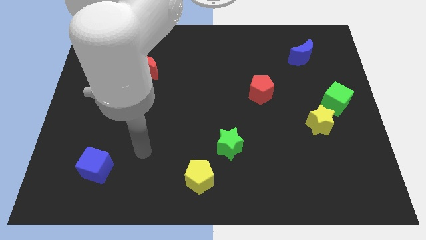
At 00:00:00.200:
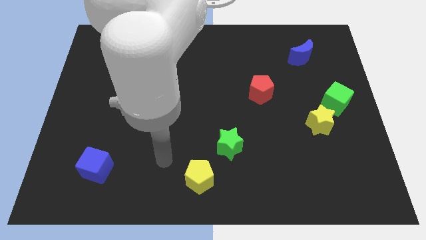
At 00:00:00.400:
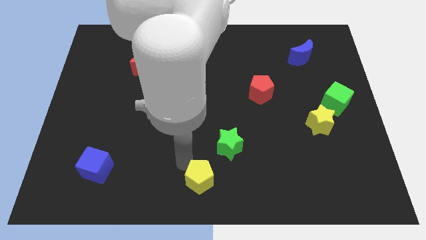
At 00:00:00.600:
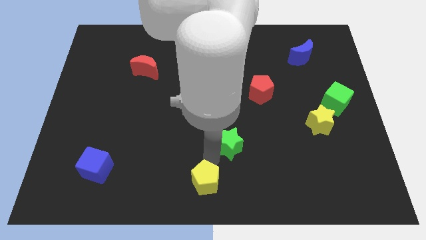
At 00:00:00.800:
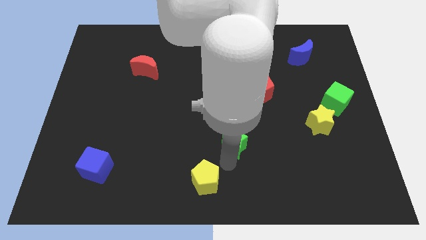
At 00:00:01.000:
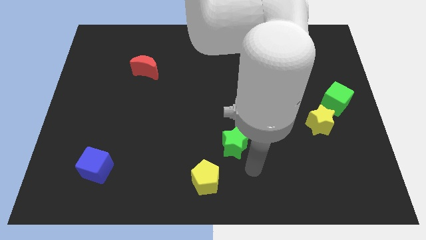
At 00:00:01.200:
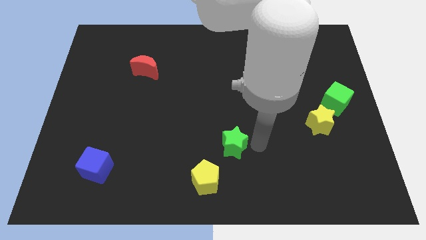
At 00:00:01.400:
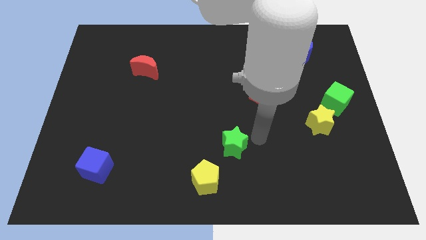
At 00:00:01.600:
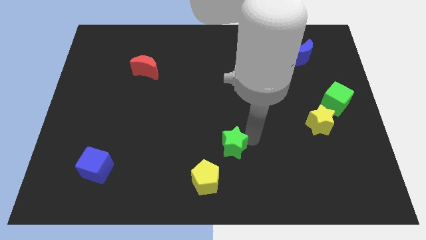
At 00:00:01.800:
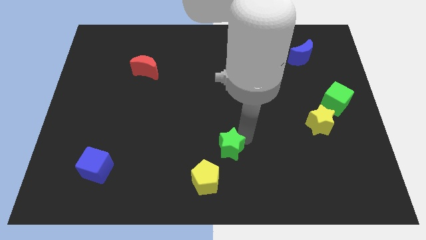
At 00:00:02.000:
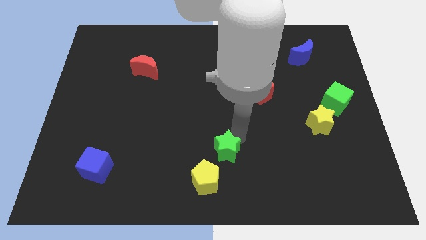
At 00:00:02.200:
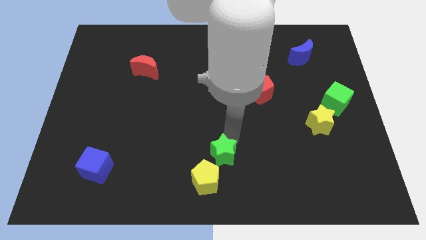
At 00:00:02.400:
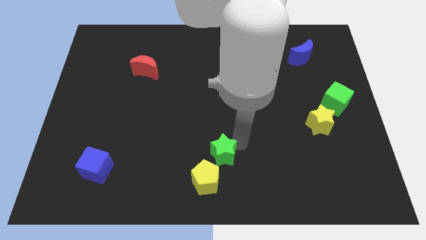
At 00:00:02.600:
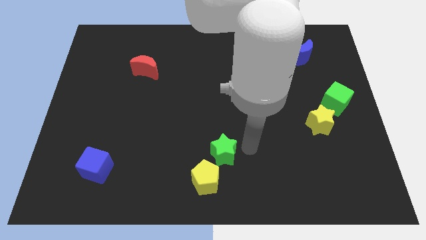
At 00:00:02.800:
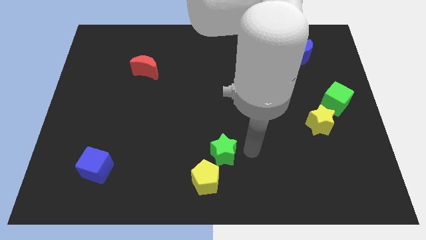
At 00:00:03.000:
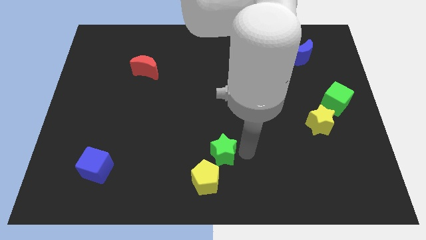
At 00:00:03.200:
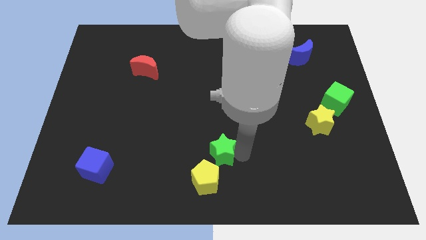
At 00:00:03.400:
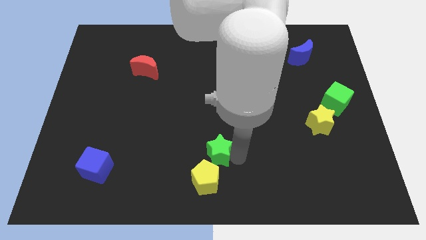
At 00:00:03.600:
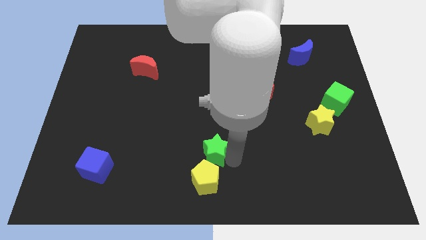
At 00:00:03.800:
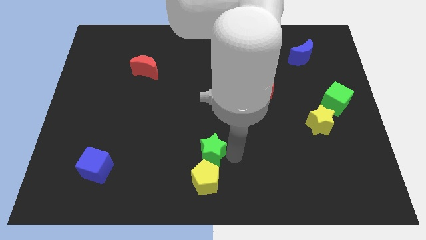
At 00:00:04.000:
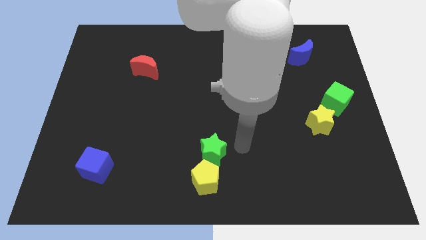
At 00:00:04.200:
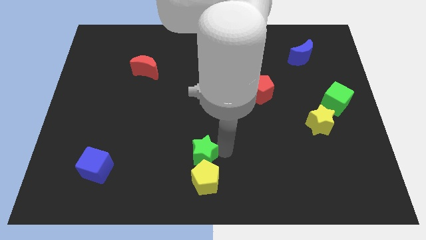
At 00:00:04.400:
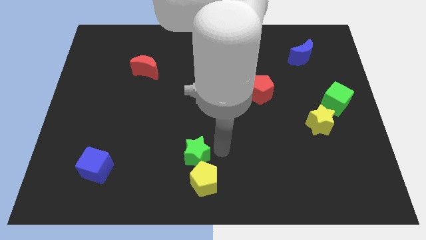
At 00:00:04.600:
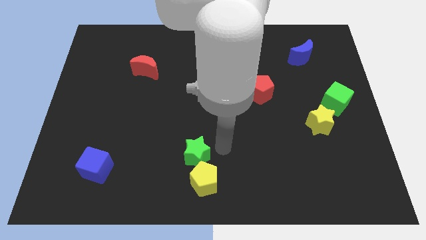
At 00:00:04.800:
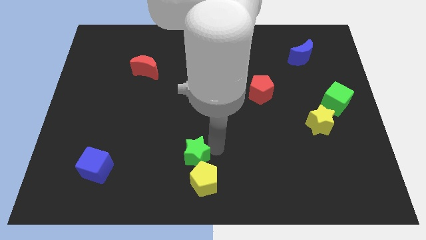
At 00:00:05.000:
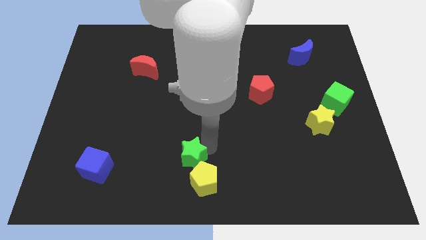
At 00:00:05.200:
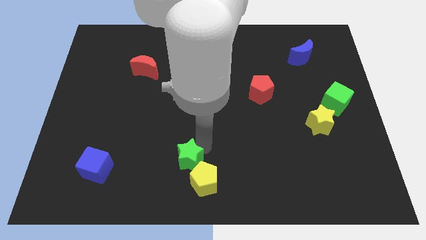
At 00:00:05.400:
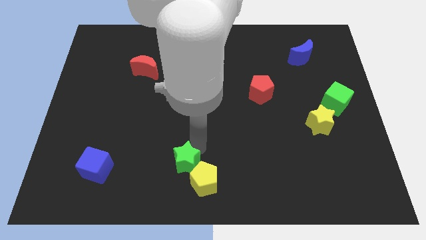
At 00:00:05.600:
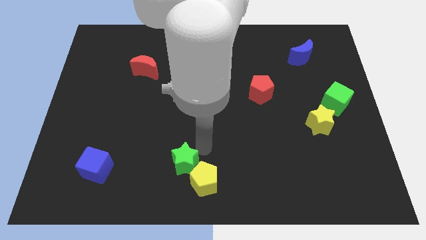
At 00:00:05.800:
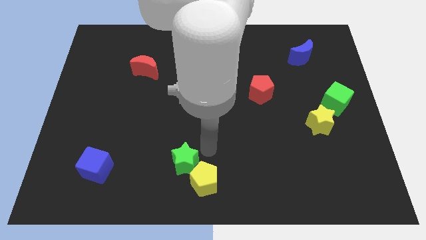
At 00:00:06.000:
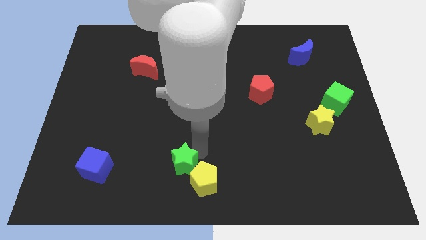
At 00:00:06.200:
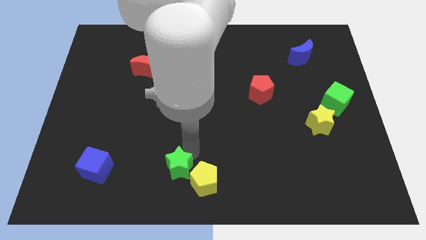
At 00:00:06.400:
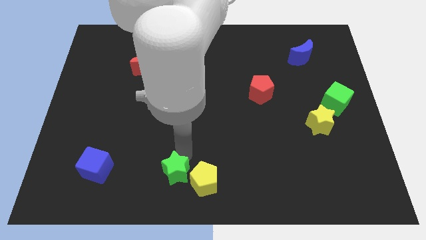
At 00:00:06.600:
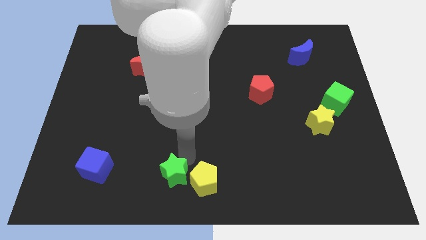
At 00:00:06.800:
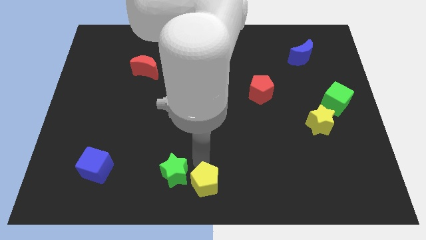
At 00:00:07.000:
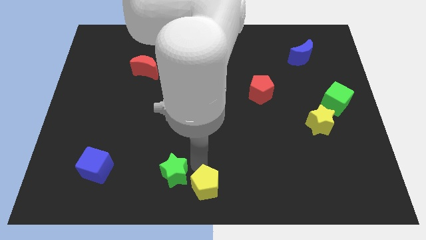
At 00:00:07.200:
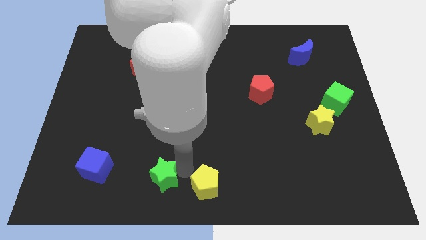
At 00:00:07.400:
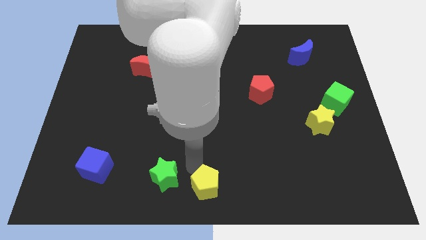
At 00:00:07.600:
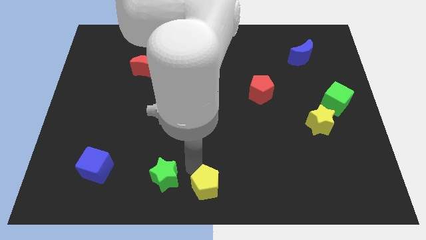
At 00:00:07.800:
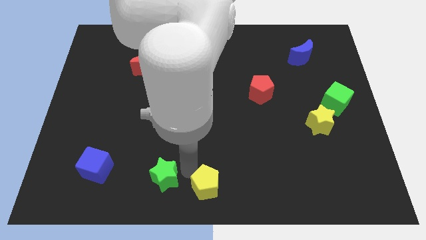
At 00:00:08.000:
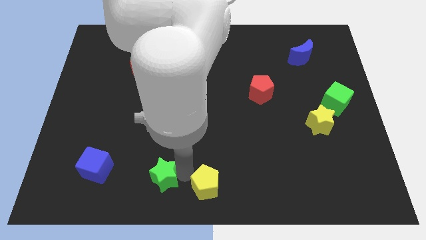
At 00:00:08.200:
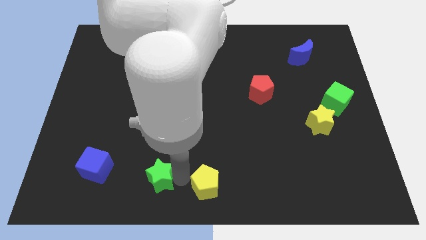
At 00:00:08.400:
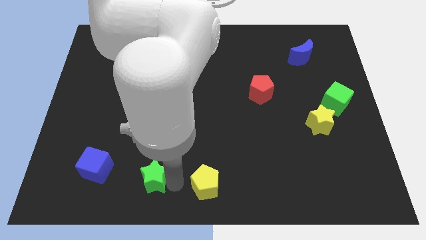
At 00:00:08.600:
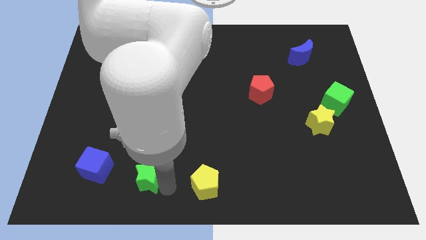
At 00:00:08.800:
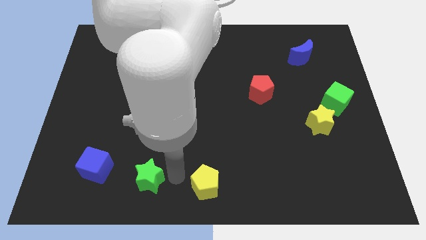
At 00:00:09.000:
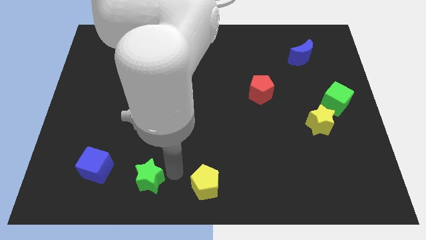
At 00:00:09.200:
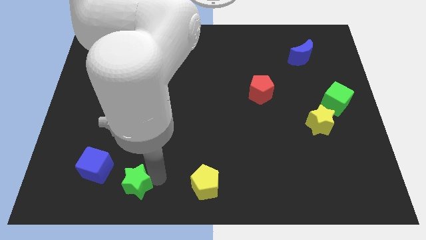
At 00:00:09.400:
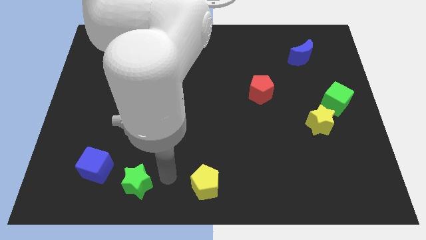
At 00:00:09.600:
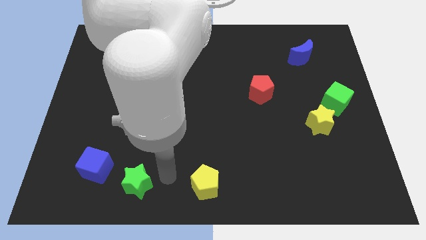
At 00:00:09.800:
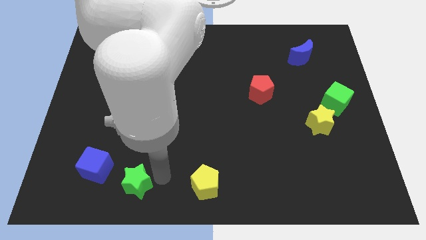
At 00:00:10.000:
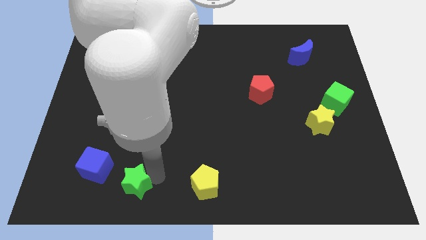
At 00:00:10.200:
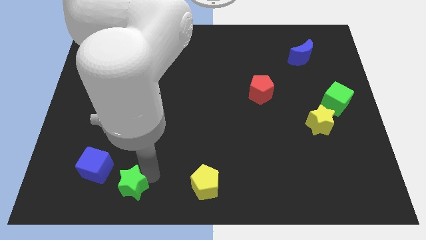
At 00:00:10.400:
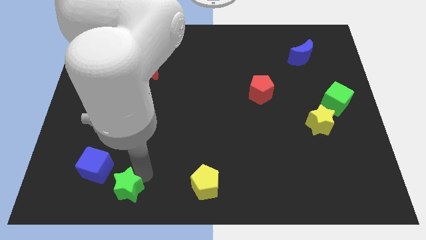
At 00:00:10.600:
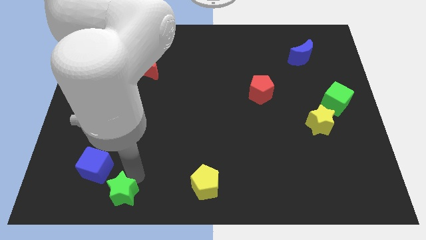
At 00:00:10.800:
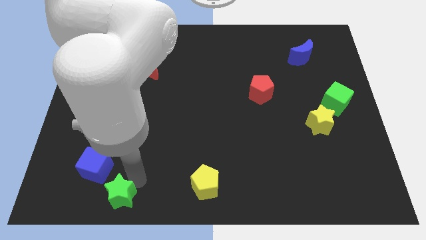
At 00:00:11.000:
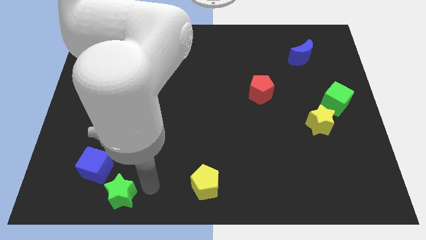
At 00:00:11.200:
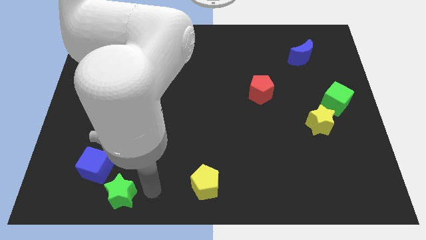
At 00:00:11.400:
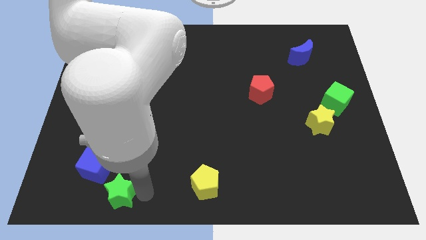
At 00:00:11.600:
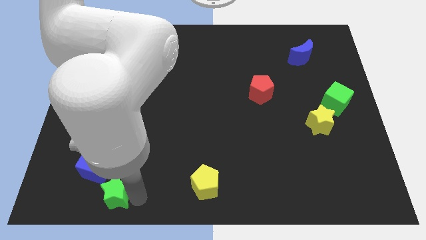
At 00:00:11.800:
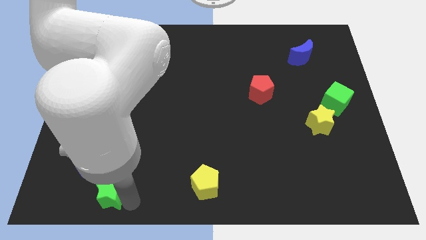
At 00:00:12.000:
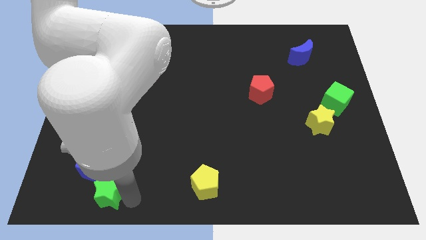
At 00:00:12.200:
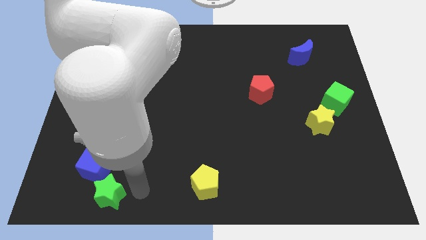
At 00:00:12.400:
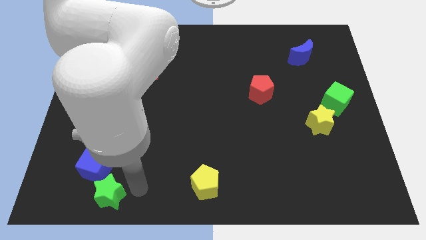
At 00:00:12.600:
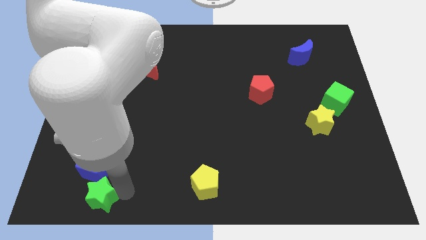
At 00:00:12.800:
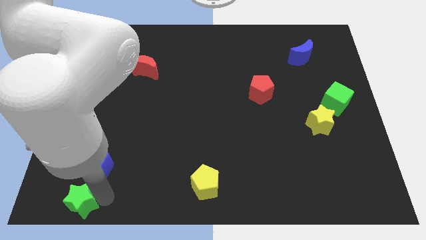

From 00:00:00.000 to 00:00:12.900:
push the green star to the bottom left
